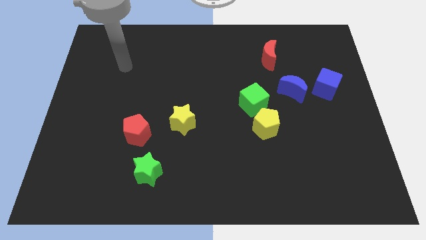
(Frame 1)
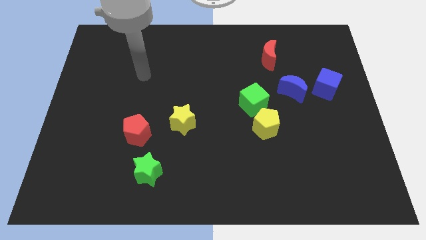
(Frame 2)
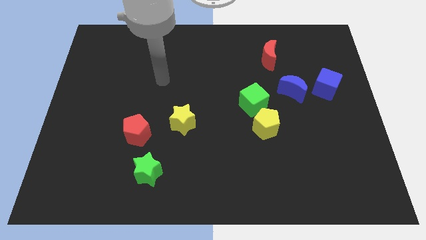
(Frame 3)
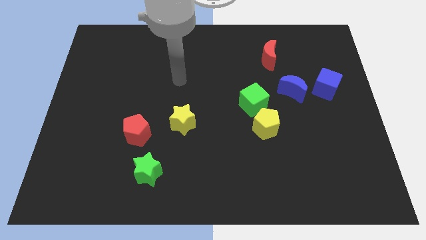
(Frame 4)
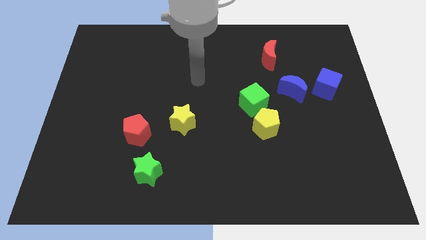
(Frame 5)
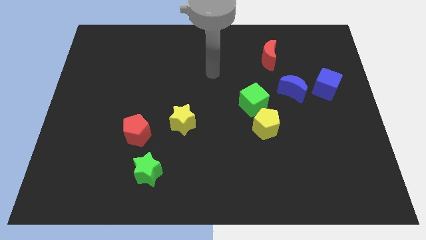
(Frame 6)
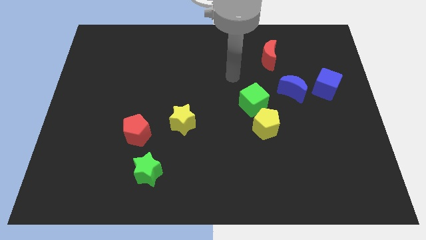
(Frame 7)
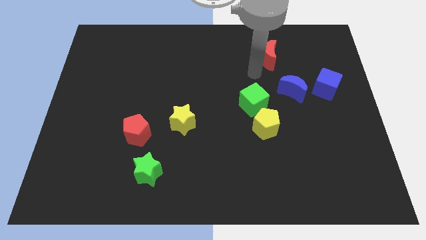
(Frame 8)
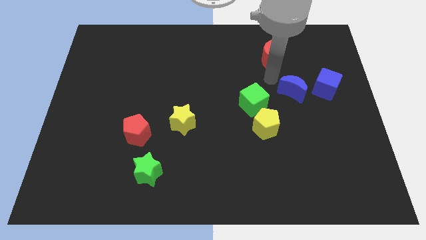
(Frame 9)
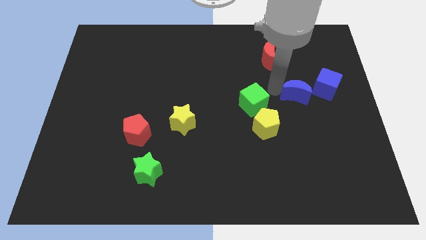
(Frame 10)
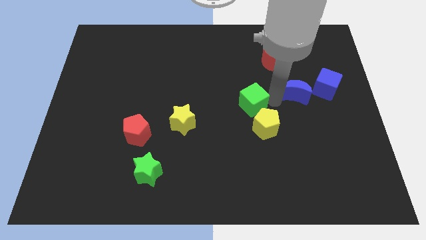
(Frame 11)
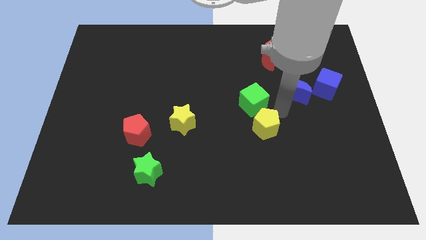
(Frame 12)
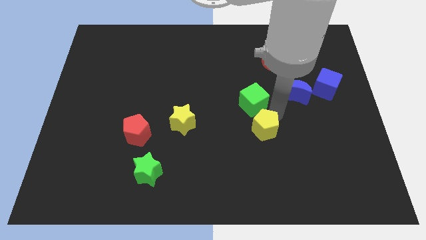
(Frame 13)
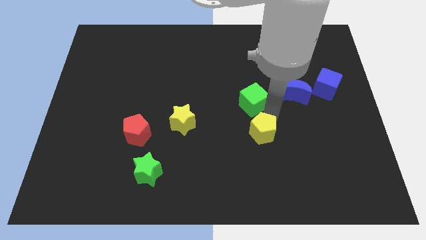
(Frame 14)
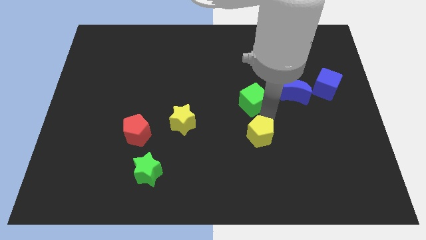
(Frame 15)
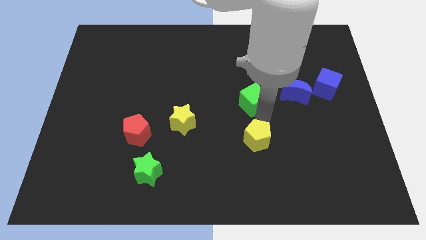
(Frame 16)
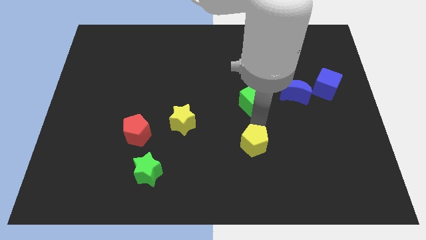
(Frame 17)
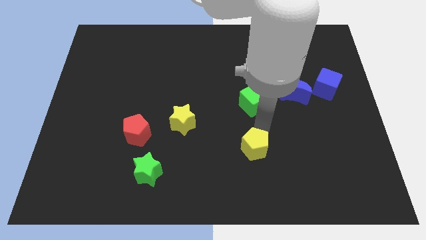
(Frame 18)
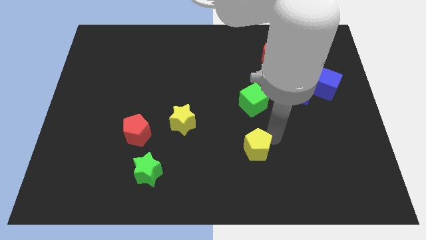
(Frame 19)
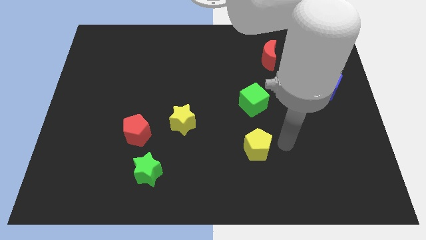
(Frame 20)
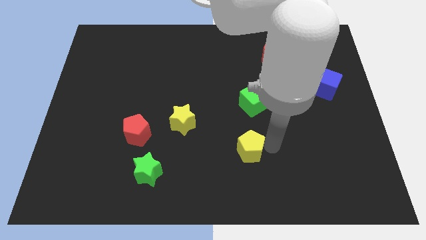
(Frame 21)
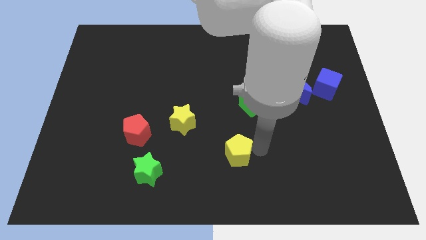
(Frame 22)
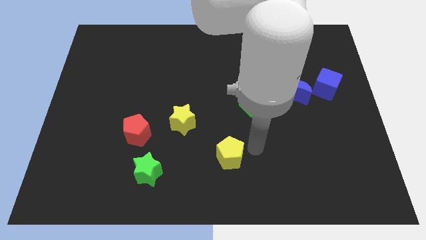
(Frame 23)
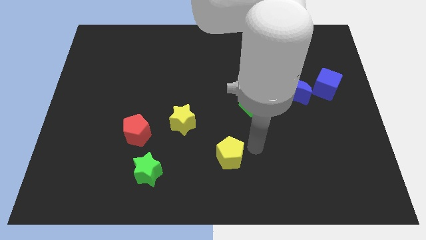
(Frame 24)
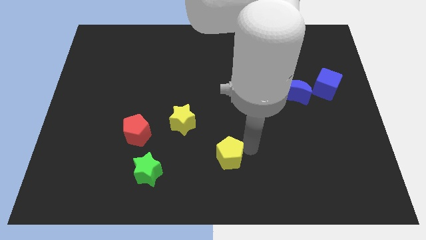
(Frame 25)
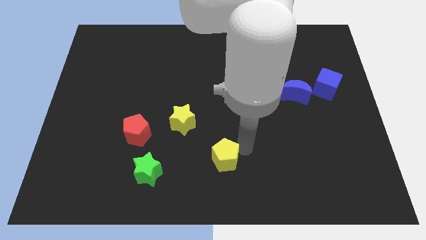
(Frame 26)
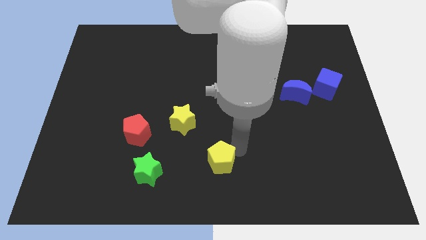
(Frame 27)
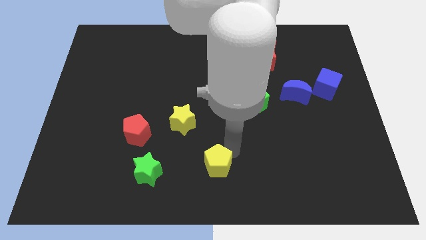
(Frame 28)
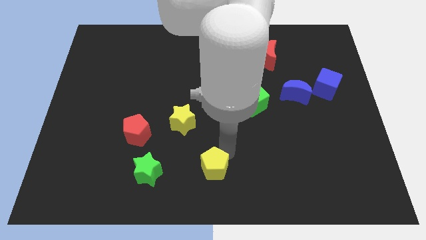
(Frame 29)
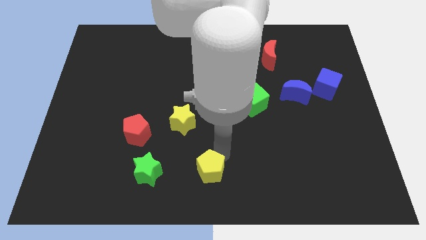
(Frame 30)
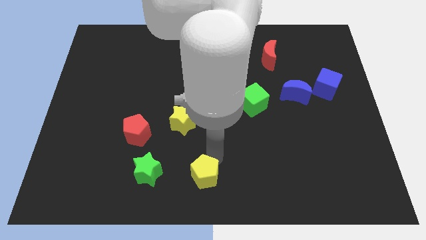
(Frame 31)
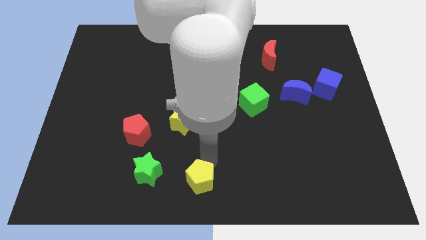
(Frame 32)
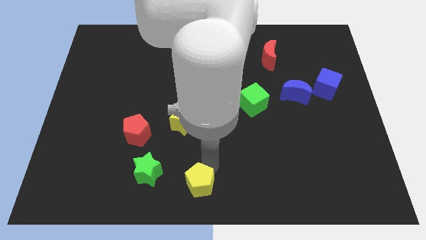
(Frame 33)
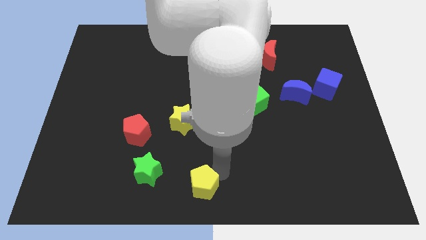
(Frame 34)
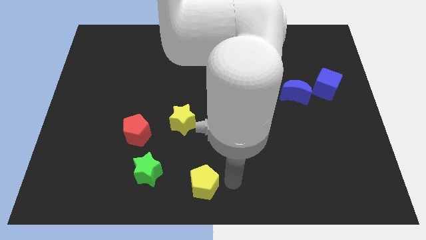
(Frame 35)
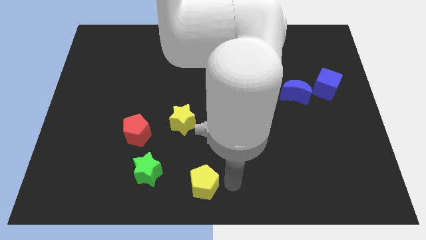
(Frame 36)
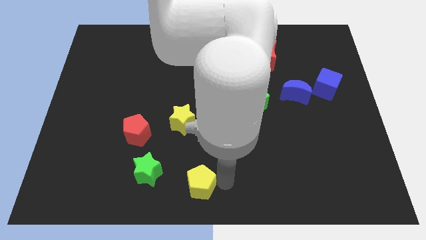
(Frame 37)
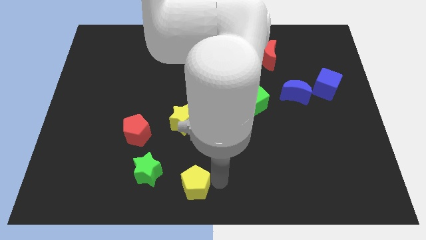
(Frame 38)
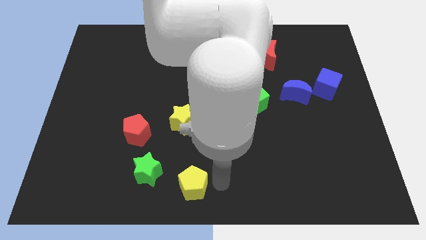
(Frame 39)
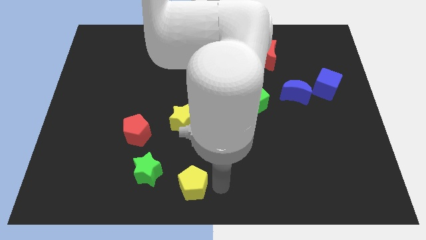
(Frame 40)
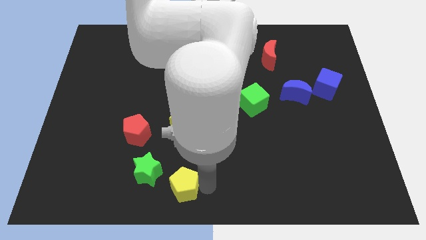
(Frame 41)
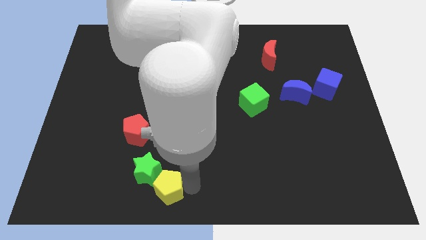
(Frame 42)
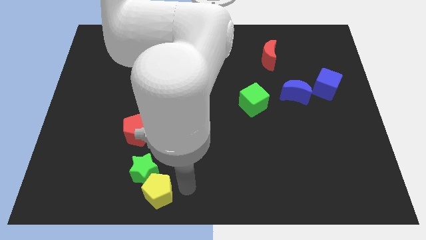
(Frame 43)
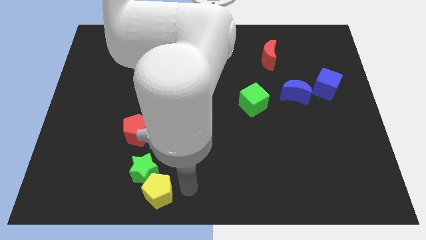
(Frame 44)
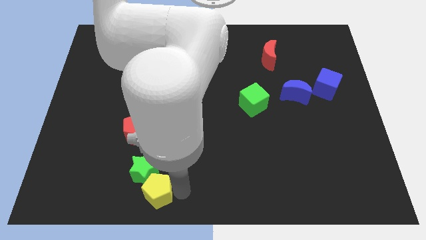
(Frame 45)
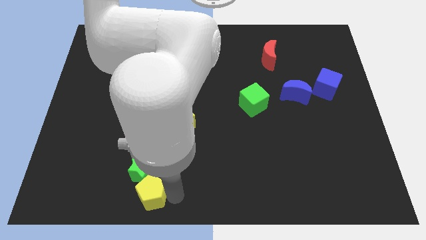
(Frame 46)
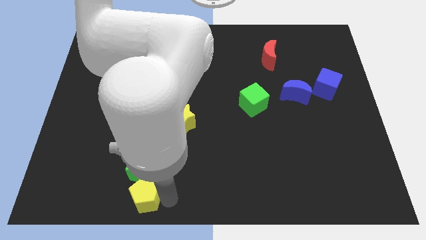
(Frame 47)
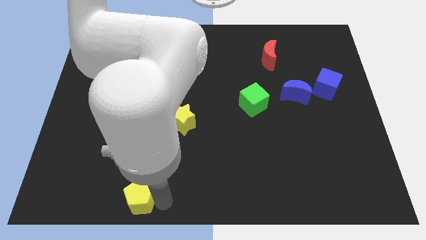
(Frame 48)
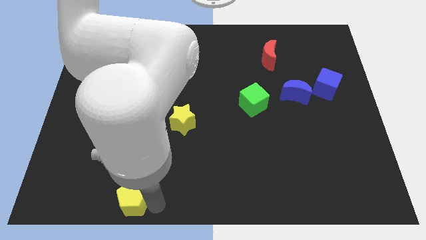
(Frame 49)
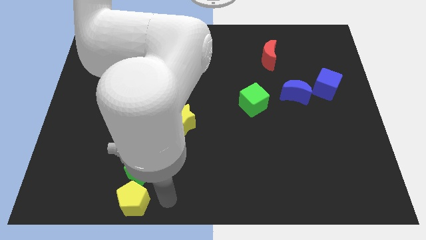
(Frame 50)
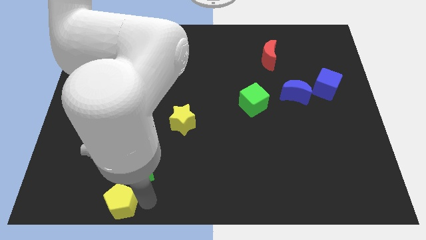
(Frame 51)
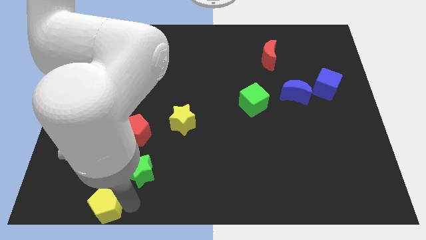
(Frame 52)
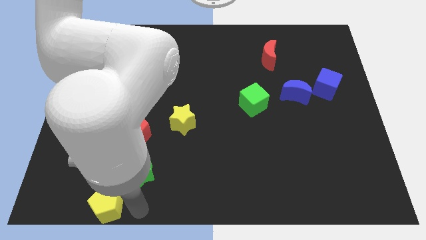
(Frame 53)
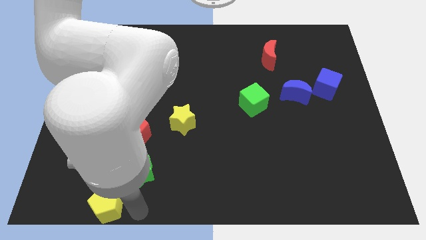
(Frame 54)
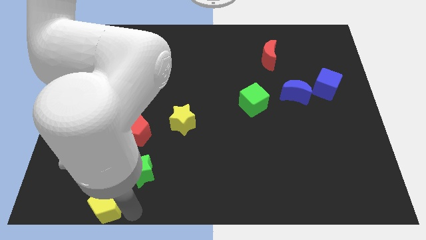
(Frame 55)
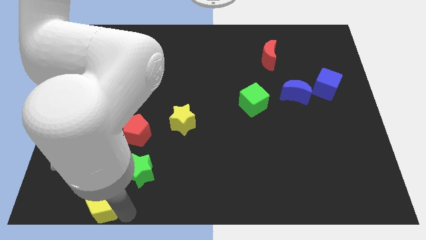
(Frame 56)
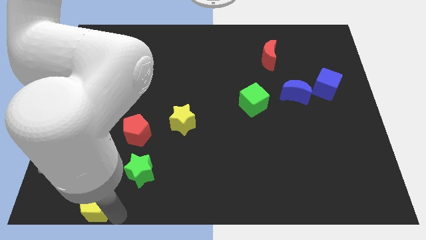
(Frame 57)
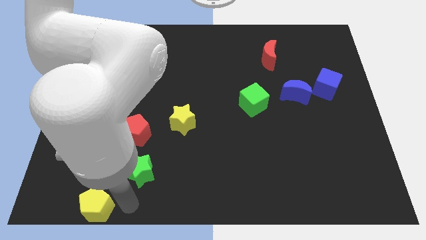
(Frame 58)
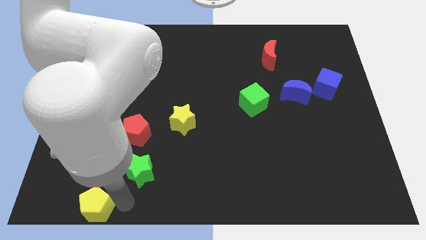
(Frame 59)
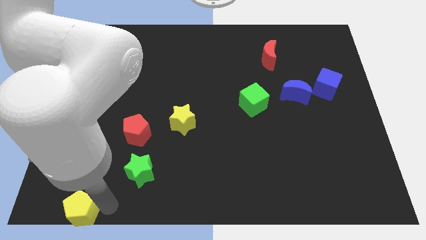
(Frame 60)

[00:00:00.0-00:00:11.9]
put the yellow pentagon to the lower left corner

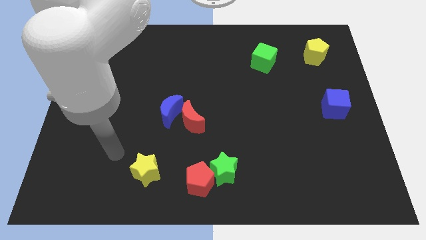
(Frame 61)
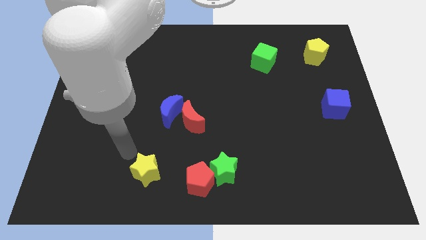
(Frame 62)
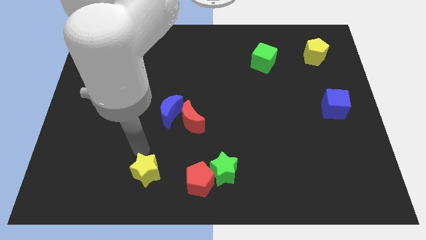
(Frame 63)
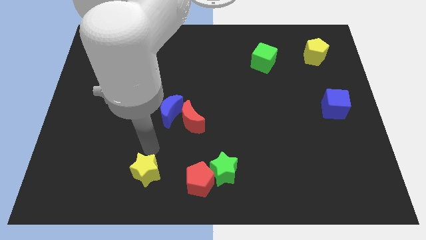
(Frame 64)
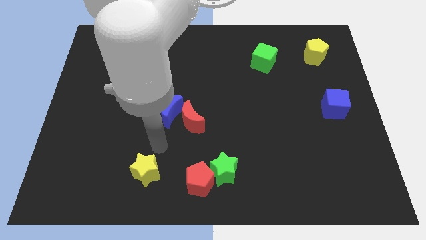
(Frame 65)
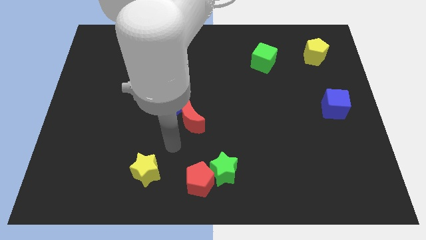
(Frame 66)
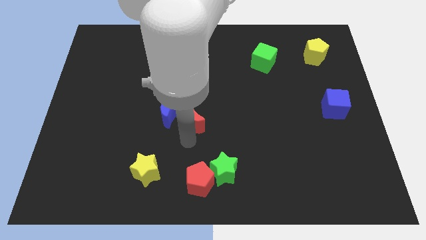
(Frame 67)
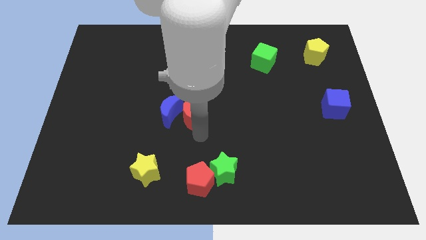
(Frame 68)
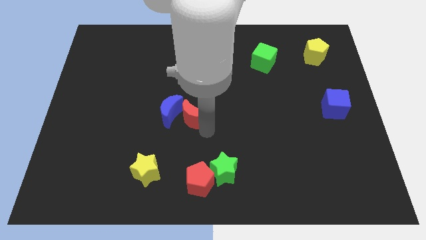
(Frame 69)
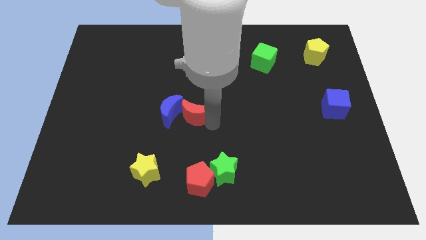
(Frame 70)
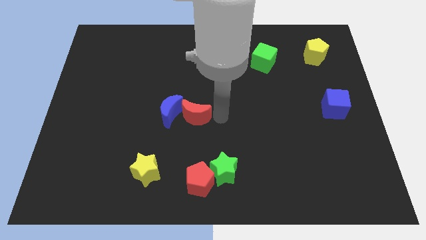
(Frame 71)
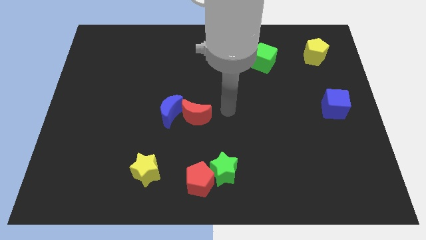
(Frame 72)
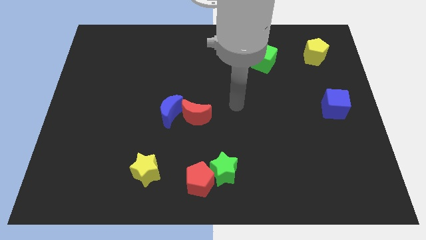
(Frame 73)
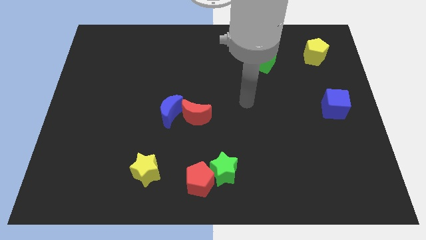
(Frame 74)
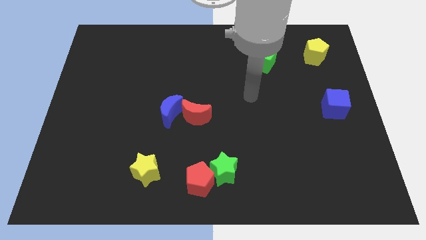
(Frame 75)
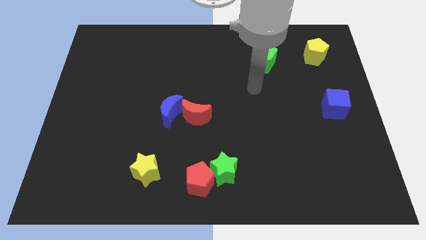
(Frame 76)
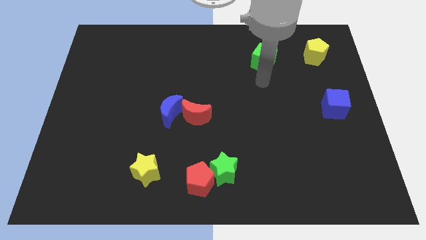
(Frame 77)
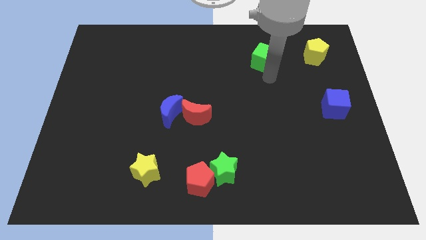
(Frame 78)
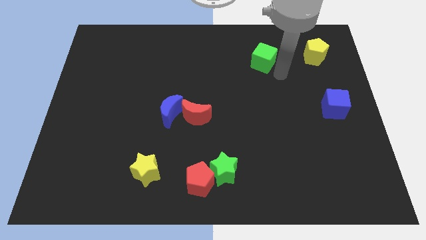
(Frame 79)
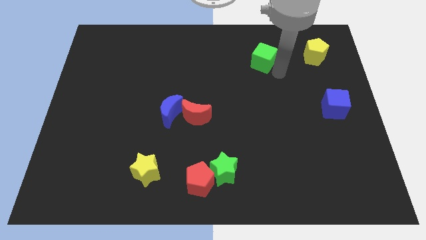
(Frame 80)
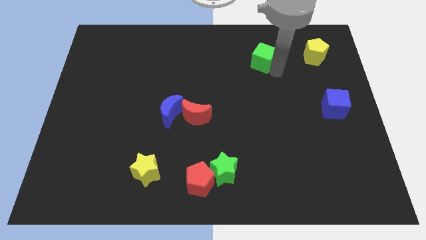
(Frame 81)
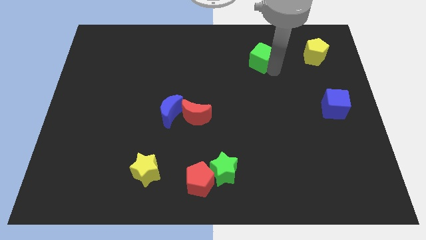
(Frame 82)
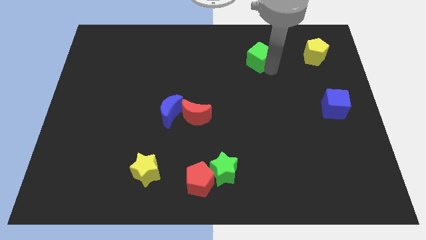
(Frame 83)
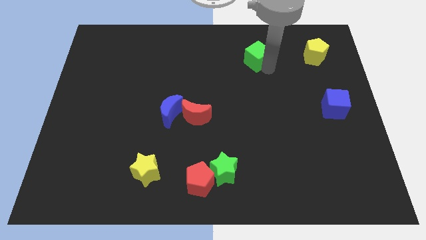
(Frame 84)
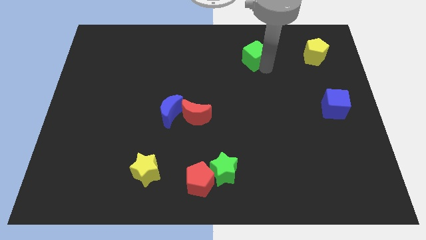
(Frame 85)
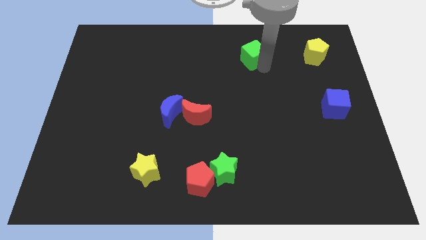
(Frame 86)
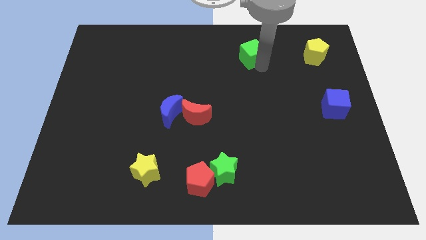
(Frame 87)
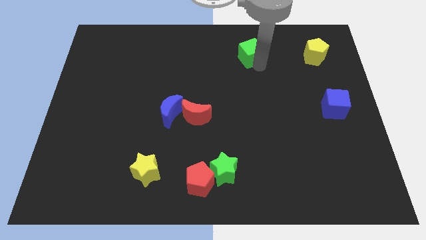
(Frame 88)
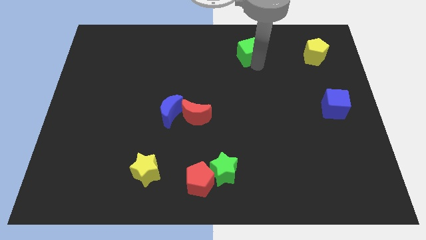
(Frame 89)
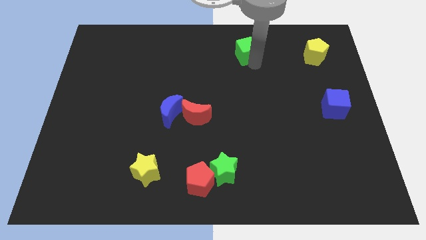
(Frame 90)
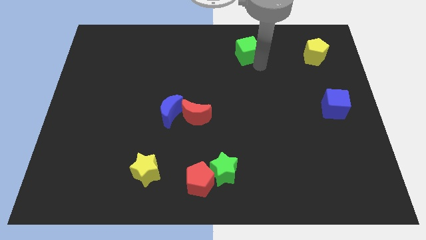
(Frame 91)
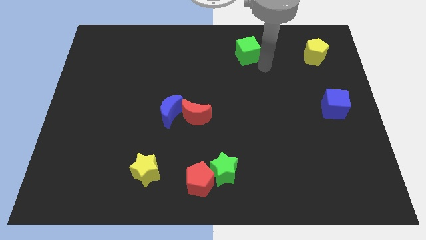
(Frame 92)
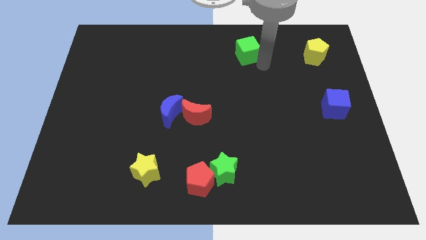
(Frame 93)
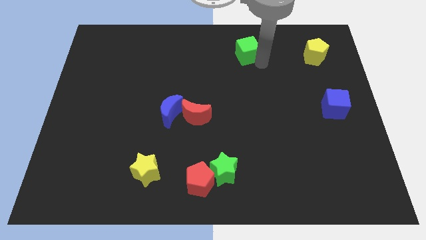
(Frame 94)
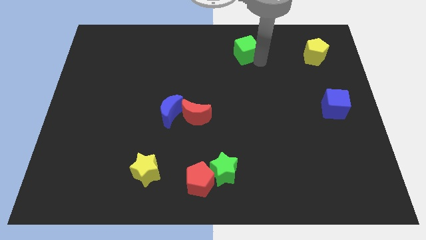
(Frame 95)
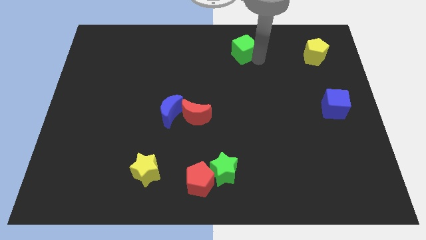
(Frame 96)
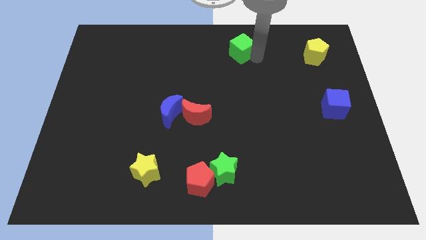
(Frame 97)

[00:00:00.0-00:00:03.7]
push the green cube to the top
